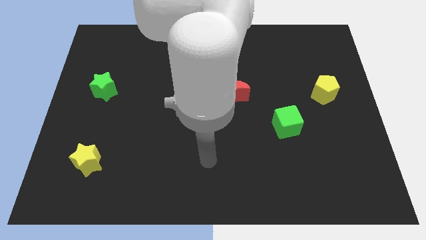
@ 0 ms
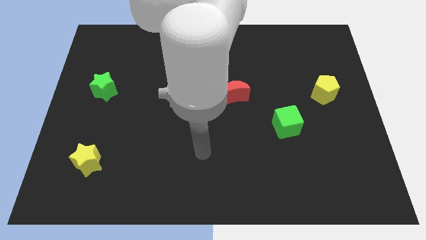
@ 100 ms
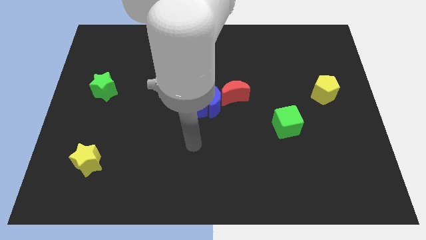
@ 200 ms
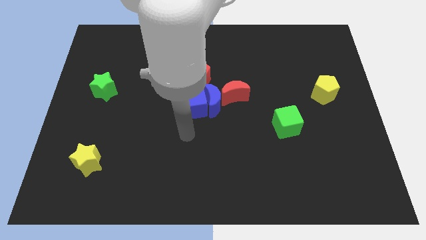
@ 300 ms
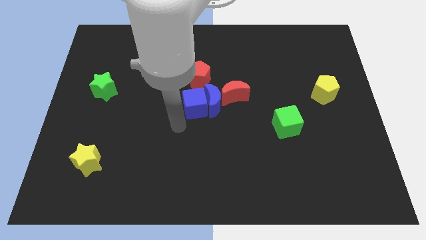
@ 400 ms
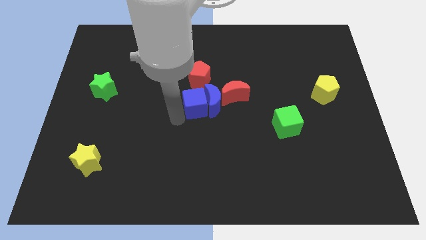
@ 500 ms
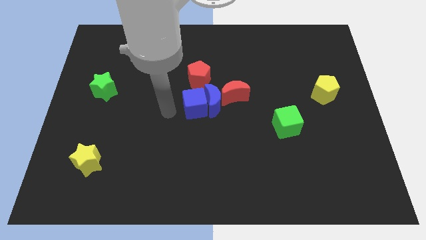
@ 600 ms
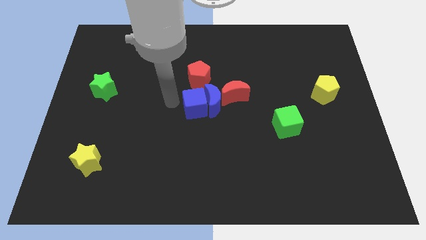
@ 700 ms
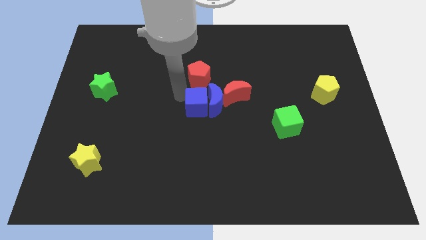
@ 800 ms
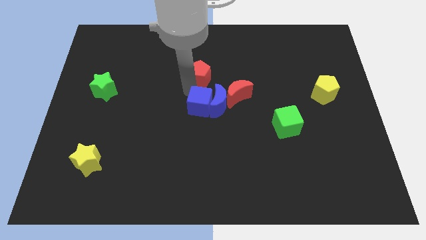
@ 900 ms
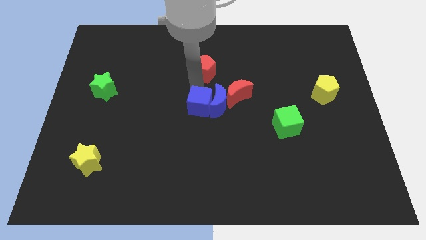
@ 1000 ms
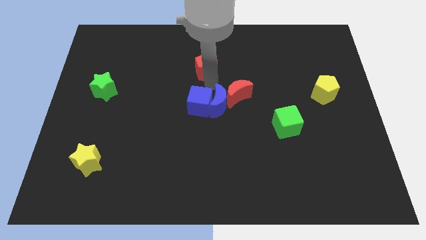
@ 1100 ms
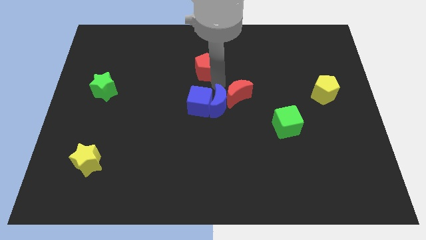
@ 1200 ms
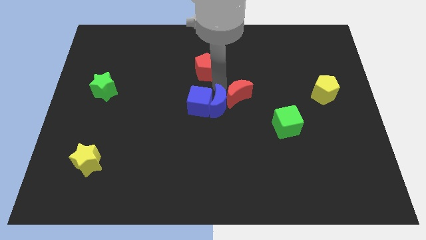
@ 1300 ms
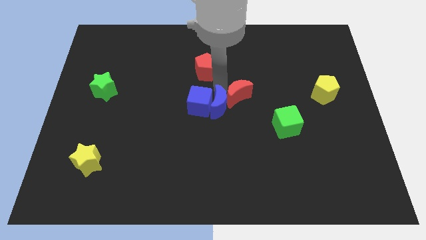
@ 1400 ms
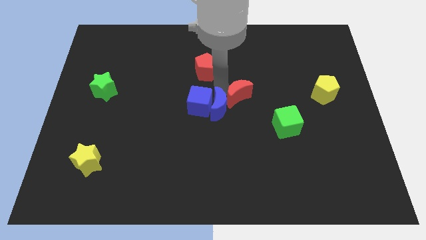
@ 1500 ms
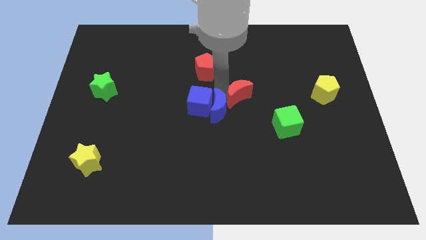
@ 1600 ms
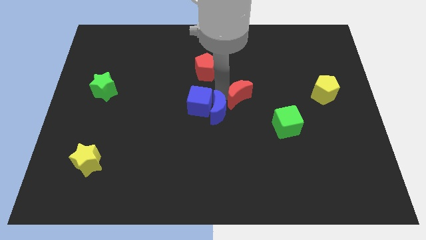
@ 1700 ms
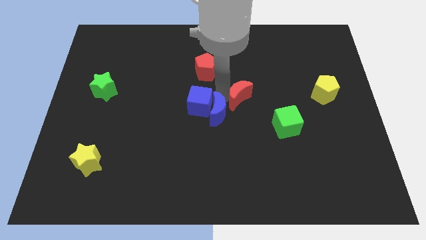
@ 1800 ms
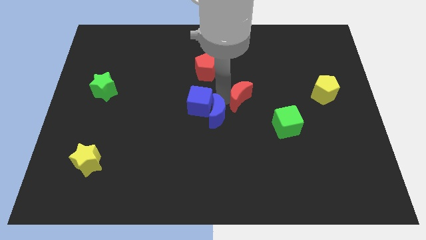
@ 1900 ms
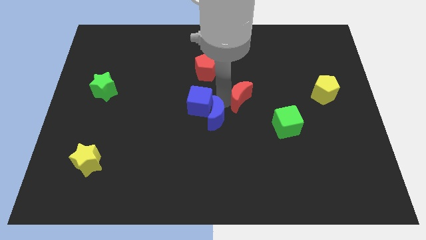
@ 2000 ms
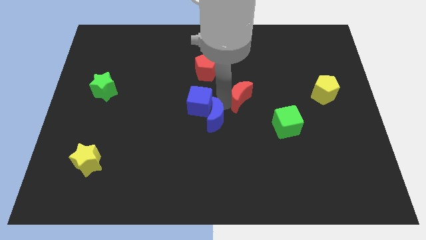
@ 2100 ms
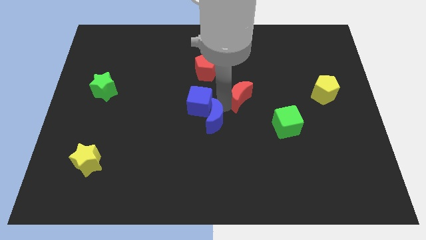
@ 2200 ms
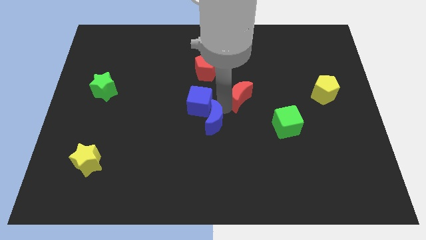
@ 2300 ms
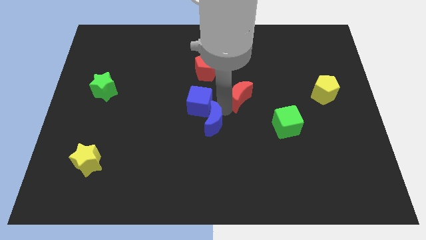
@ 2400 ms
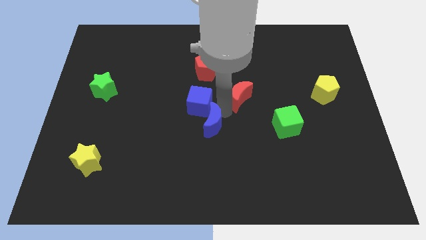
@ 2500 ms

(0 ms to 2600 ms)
move the blue moon away from the group

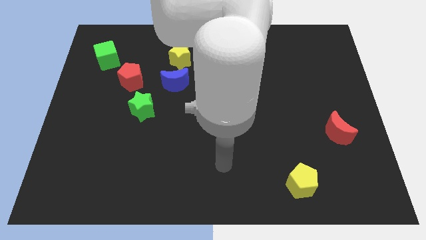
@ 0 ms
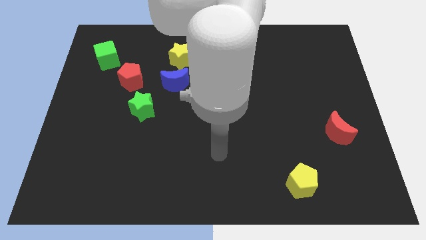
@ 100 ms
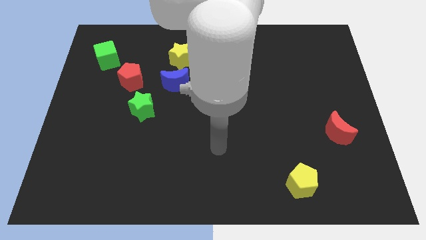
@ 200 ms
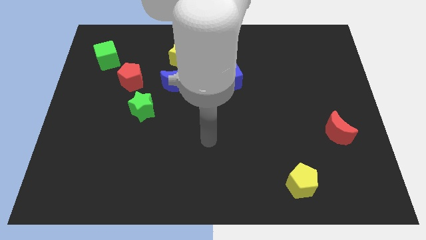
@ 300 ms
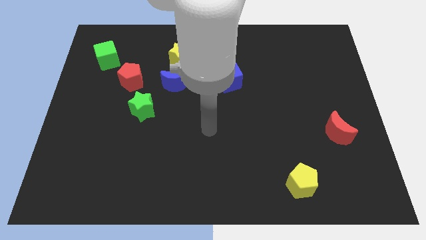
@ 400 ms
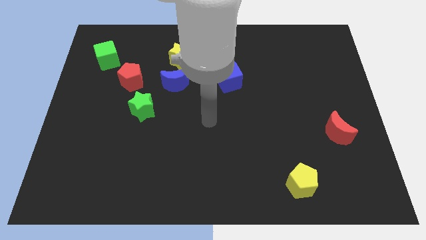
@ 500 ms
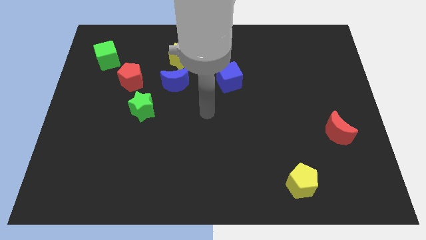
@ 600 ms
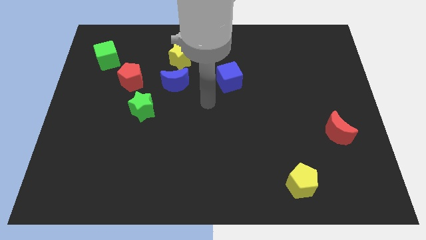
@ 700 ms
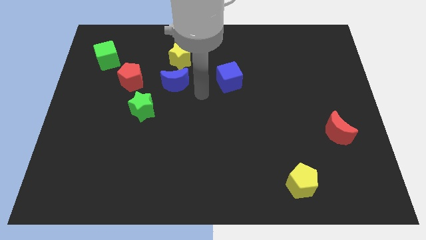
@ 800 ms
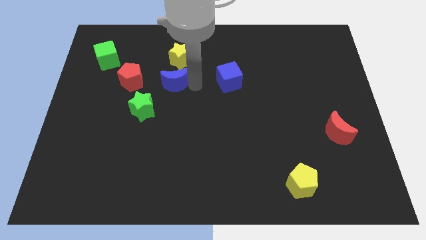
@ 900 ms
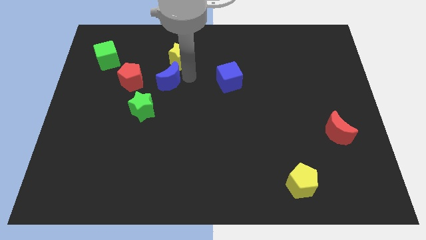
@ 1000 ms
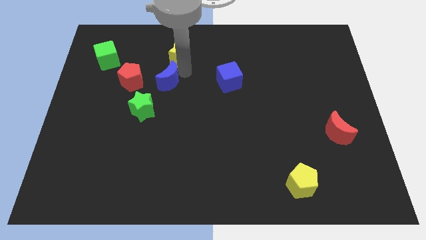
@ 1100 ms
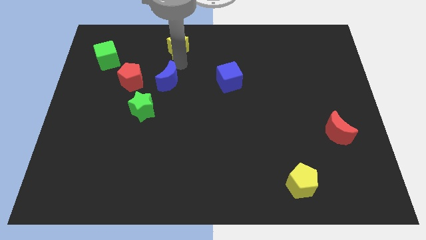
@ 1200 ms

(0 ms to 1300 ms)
separate the blue moon from the yellow star

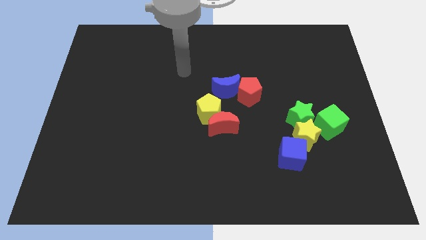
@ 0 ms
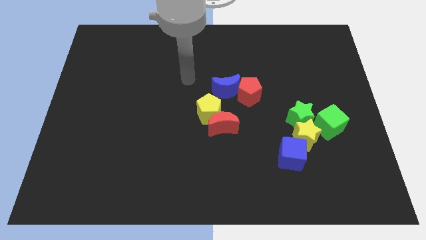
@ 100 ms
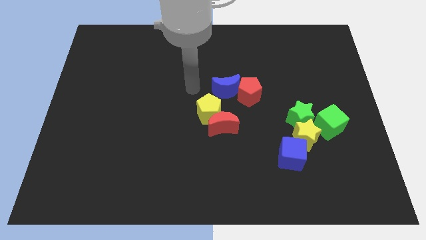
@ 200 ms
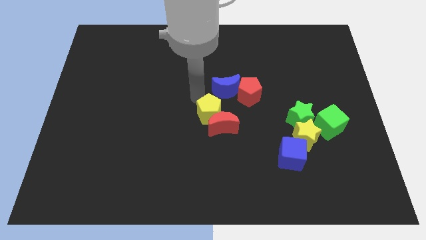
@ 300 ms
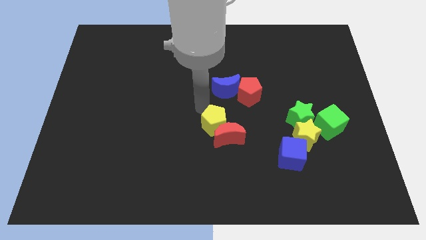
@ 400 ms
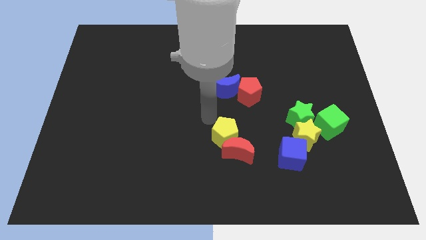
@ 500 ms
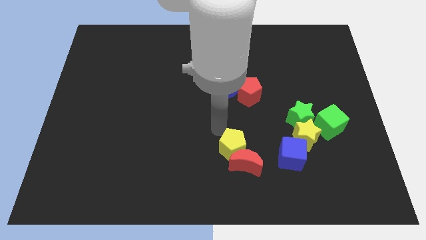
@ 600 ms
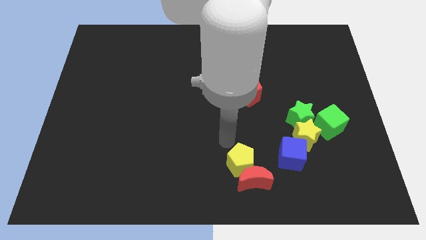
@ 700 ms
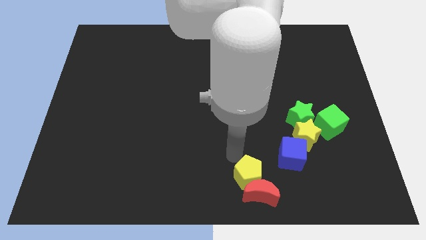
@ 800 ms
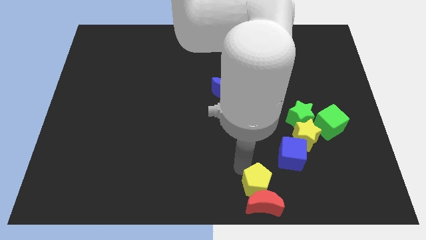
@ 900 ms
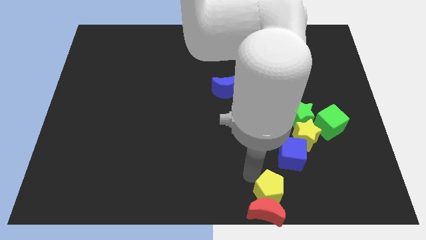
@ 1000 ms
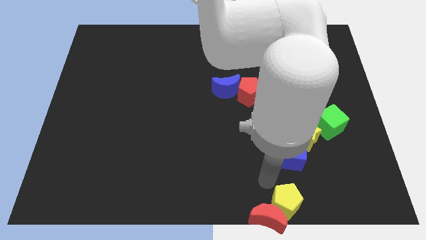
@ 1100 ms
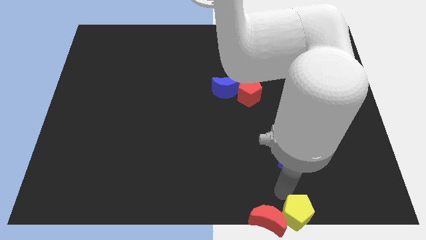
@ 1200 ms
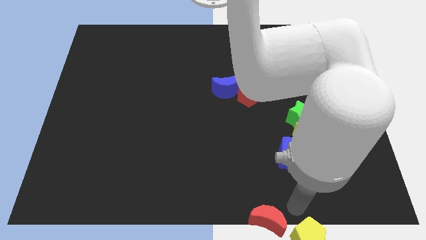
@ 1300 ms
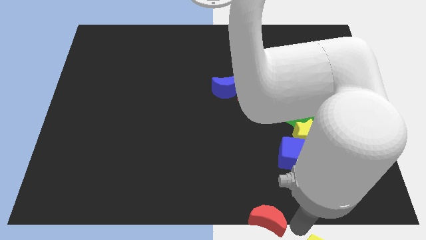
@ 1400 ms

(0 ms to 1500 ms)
separate the red moon from the yellow pentagon

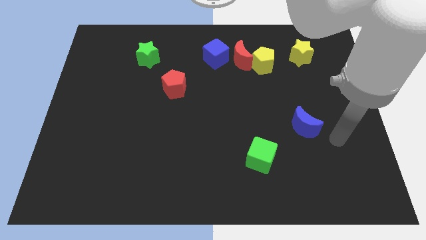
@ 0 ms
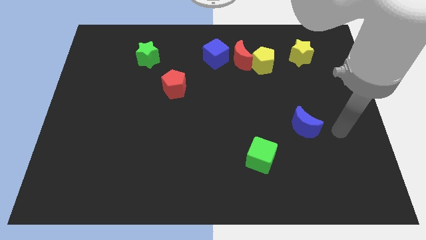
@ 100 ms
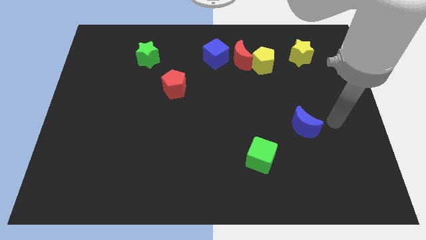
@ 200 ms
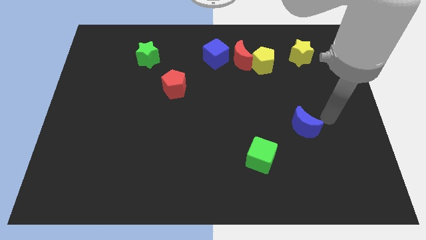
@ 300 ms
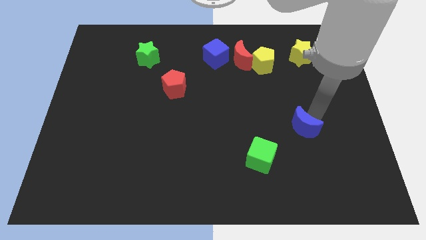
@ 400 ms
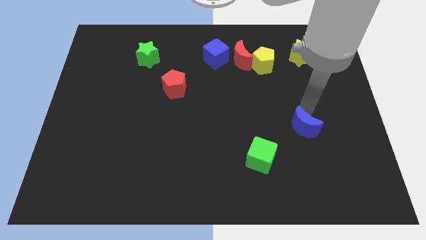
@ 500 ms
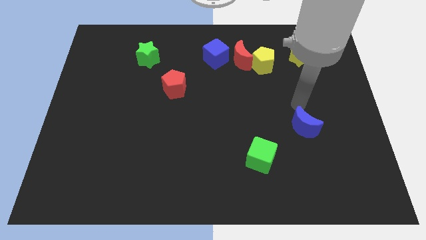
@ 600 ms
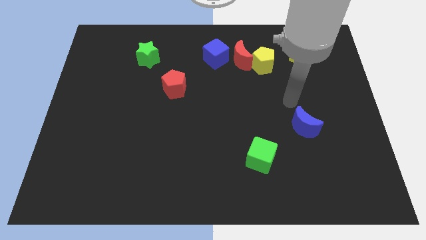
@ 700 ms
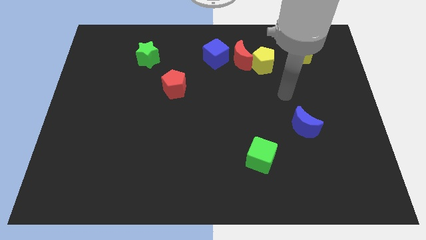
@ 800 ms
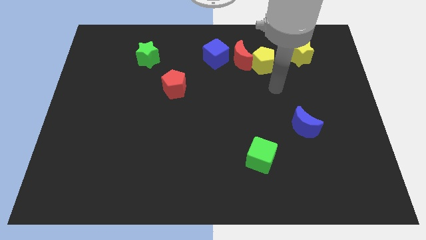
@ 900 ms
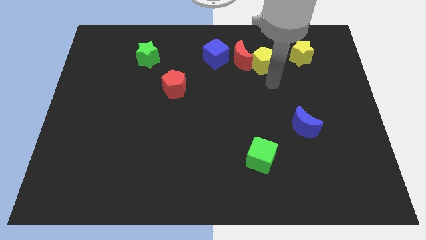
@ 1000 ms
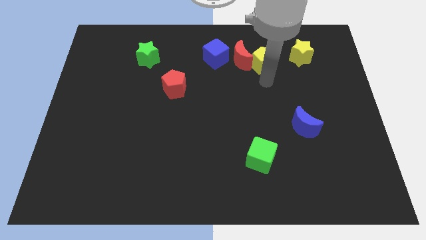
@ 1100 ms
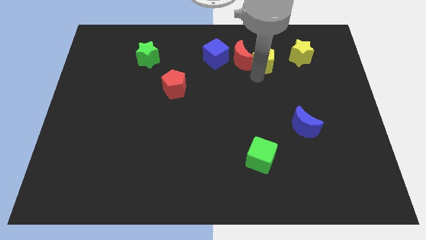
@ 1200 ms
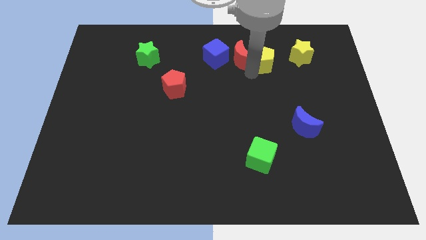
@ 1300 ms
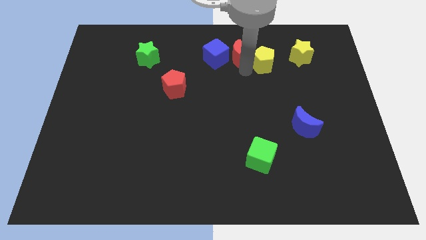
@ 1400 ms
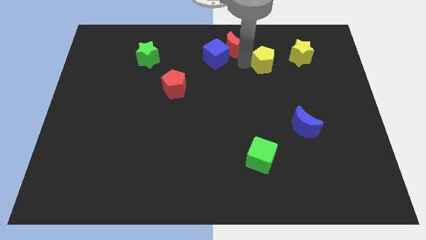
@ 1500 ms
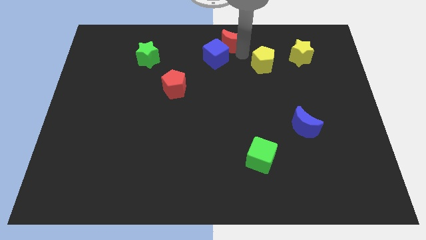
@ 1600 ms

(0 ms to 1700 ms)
separate the yellow pentagon from the red moon

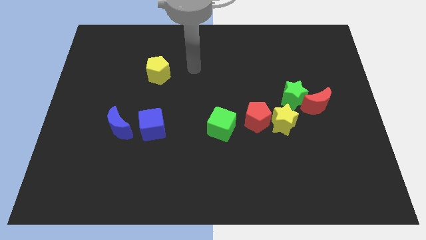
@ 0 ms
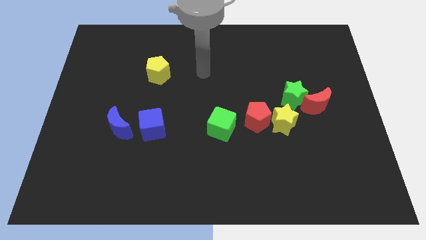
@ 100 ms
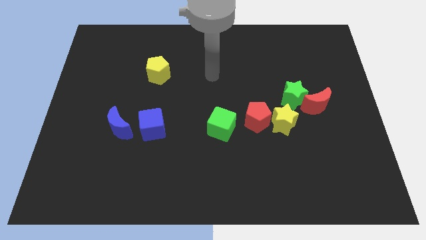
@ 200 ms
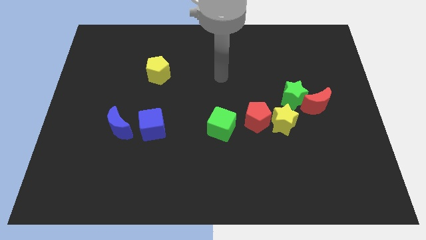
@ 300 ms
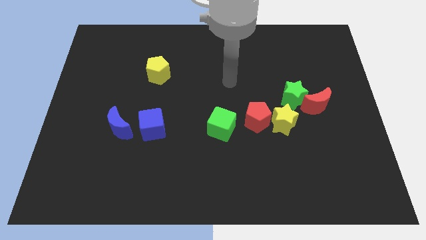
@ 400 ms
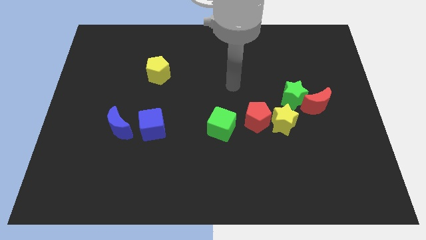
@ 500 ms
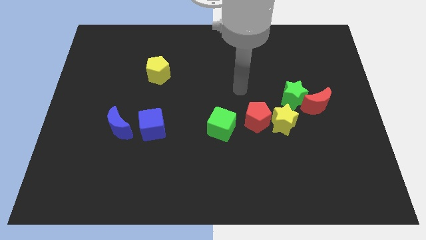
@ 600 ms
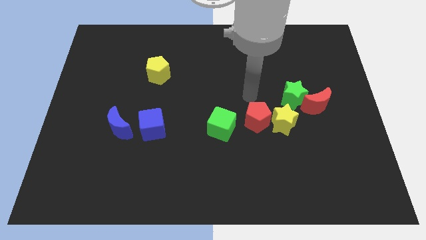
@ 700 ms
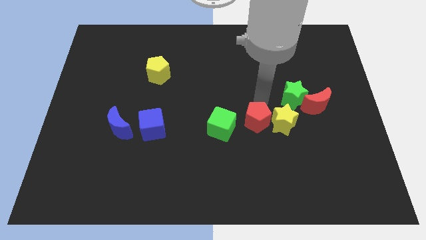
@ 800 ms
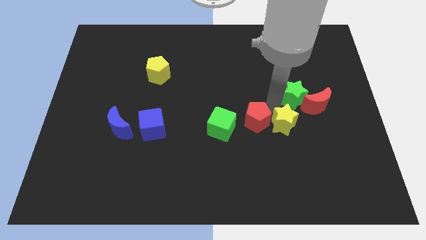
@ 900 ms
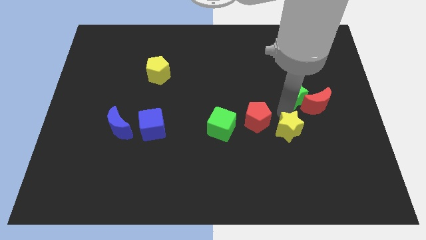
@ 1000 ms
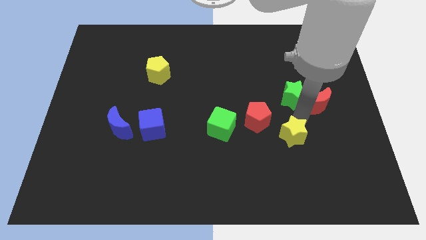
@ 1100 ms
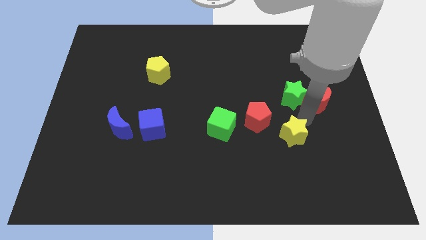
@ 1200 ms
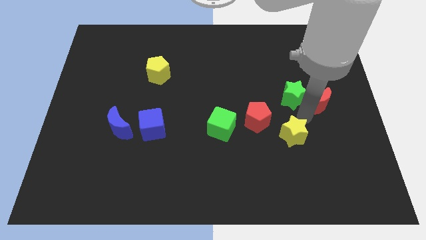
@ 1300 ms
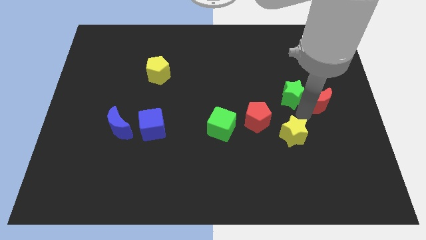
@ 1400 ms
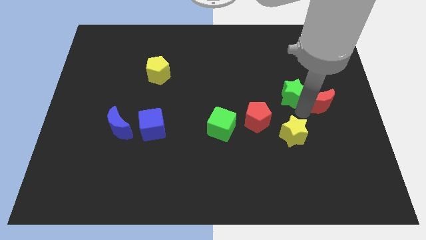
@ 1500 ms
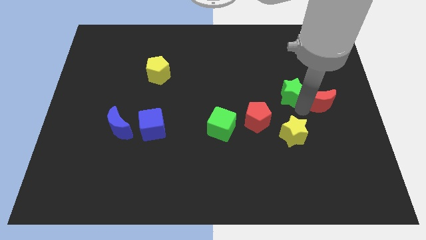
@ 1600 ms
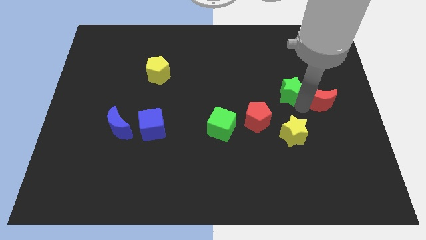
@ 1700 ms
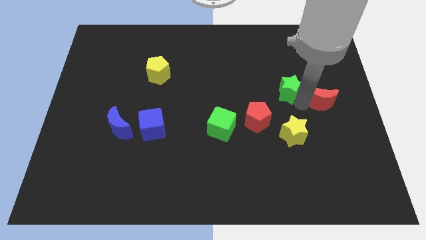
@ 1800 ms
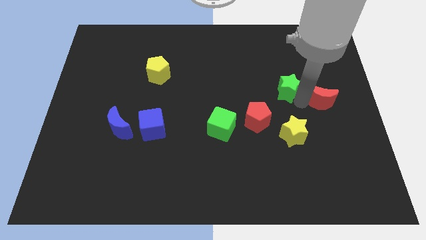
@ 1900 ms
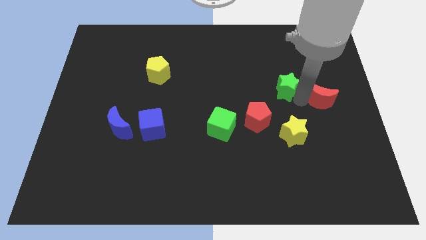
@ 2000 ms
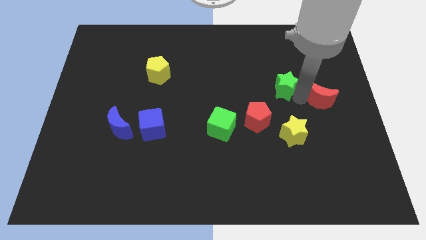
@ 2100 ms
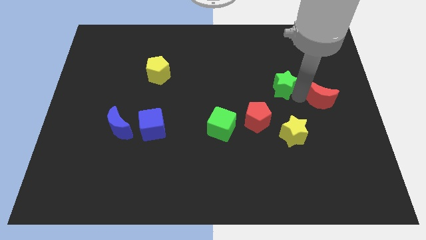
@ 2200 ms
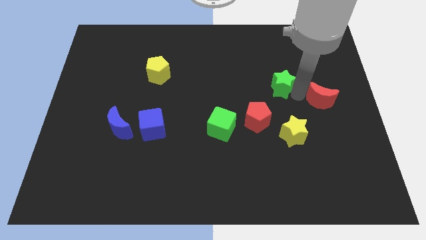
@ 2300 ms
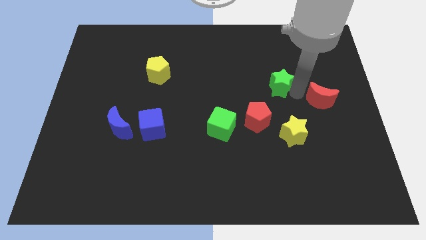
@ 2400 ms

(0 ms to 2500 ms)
separate the green star from the red moon and yellow star
